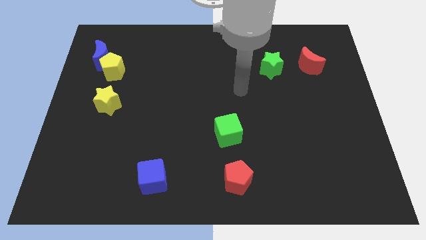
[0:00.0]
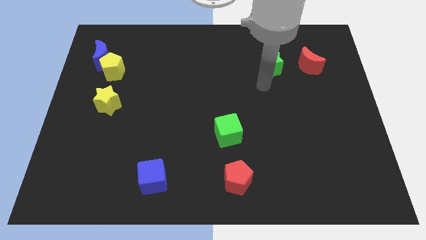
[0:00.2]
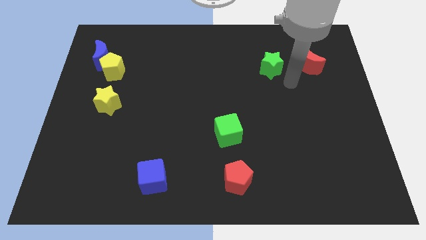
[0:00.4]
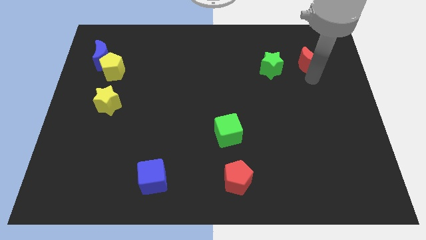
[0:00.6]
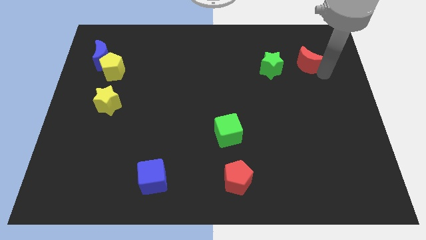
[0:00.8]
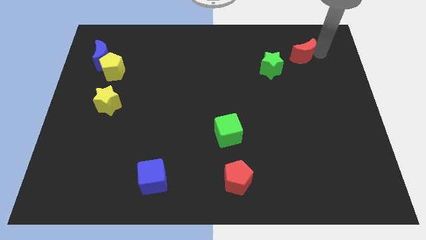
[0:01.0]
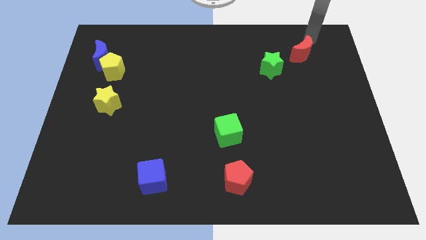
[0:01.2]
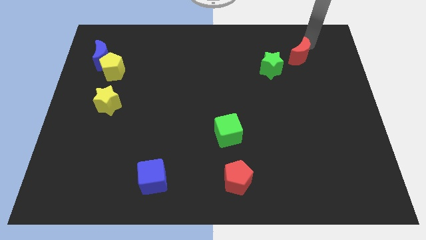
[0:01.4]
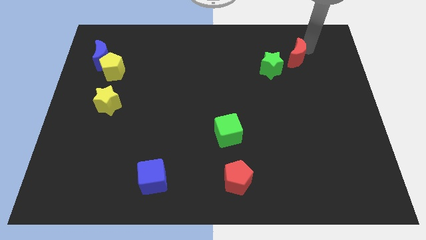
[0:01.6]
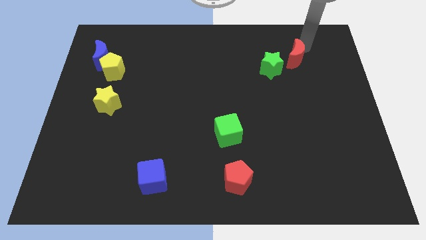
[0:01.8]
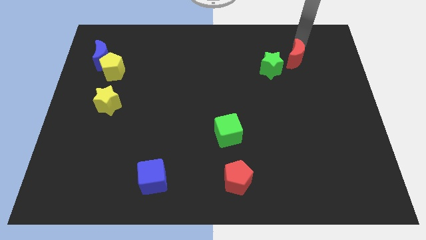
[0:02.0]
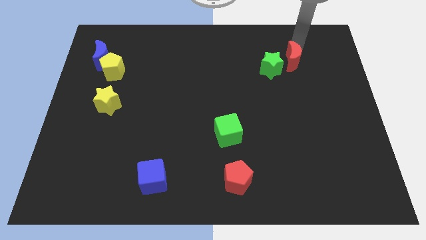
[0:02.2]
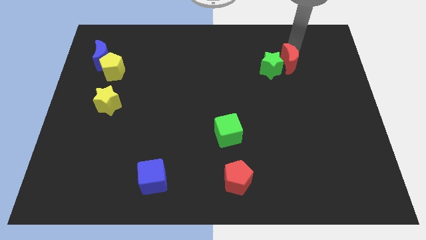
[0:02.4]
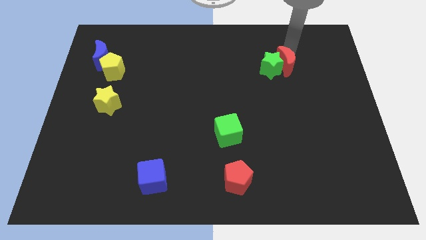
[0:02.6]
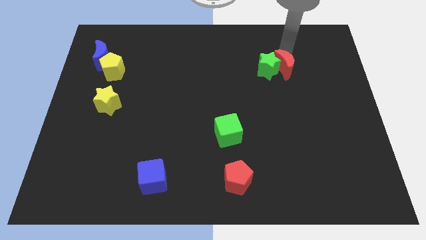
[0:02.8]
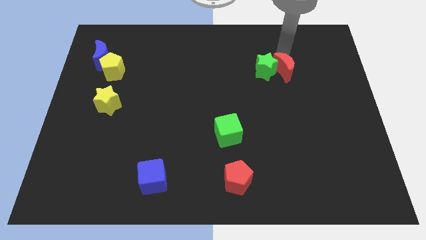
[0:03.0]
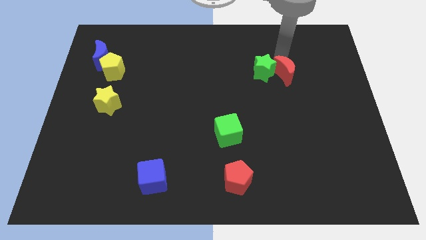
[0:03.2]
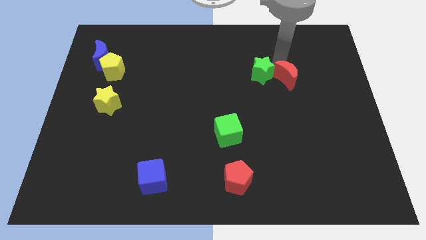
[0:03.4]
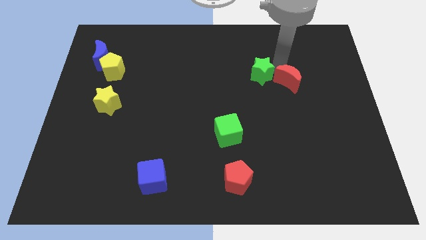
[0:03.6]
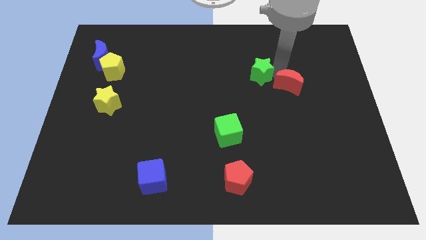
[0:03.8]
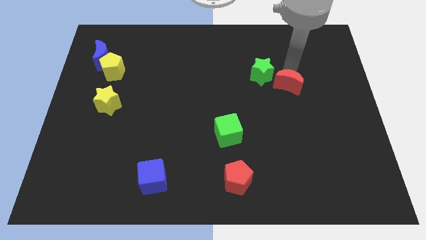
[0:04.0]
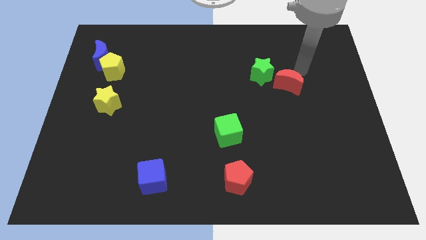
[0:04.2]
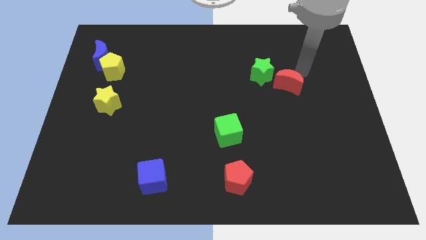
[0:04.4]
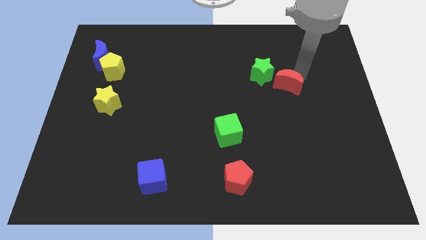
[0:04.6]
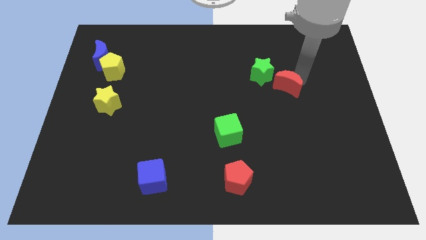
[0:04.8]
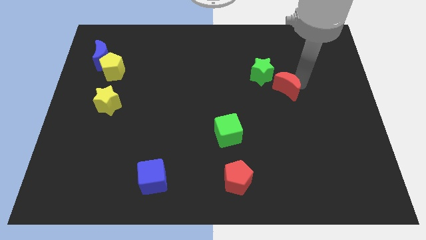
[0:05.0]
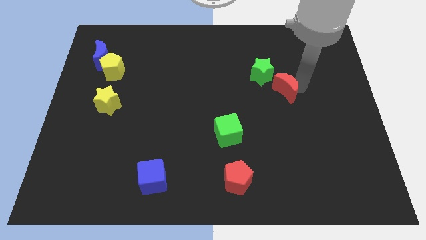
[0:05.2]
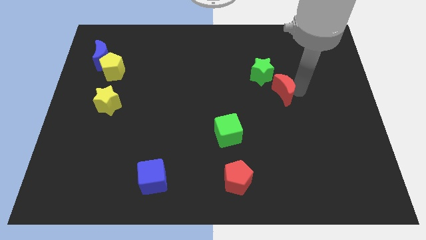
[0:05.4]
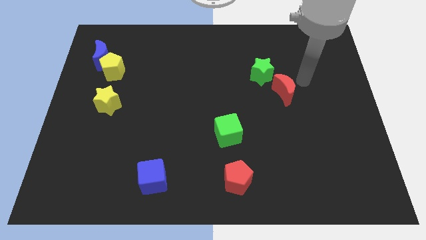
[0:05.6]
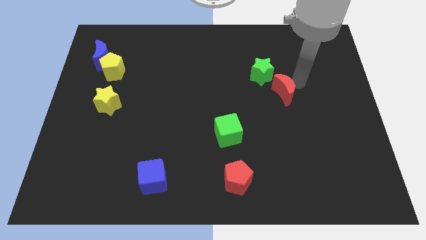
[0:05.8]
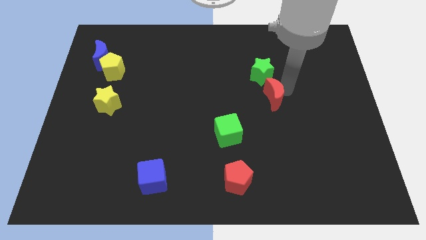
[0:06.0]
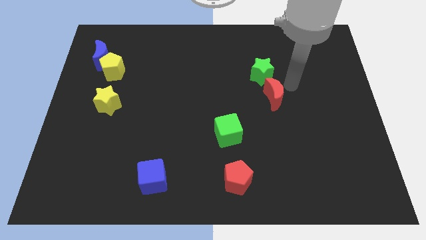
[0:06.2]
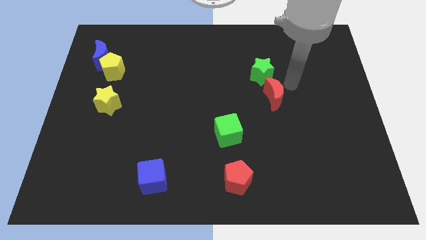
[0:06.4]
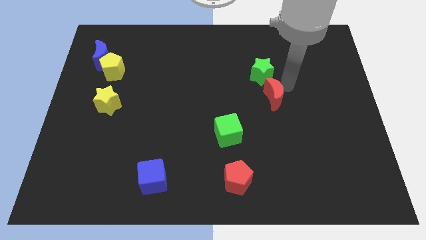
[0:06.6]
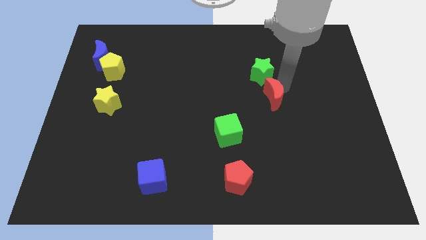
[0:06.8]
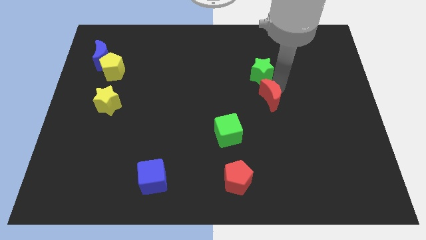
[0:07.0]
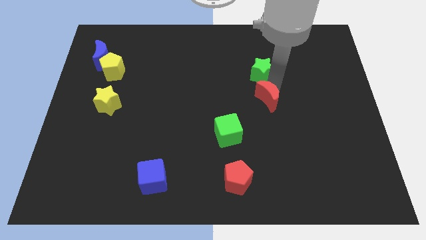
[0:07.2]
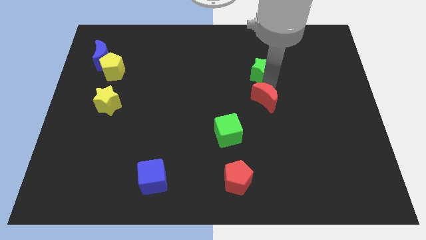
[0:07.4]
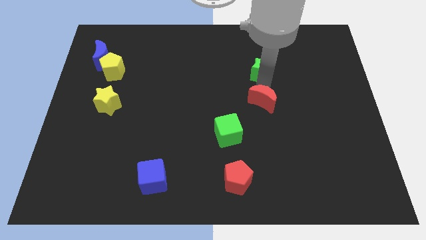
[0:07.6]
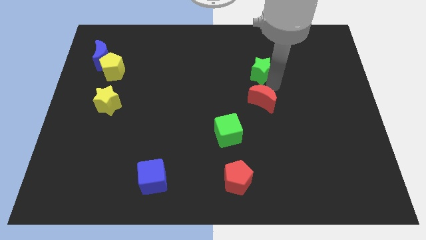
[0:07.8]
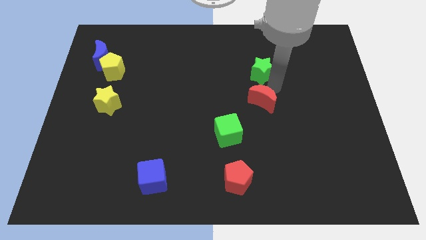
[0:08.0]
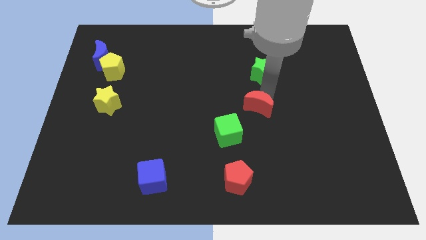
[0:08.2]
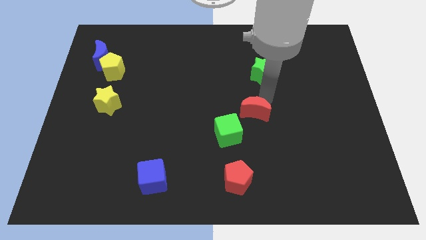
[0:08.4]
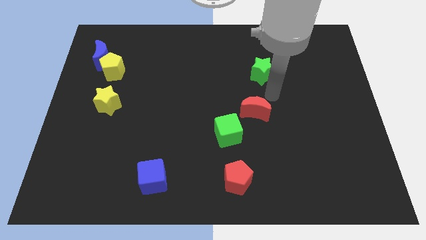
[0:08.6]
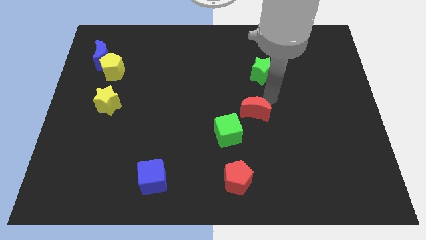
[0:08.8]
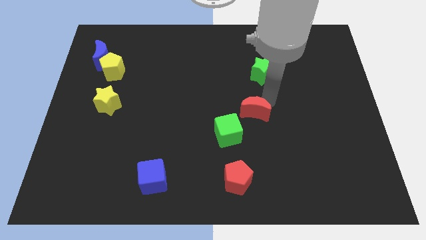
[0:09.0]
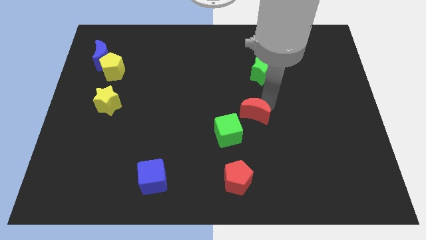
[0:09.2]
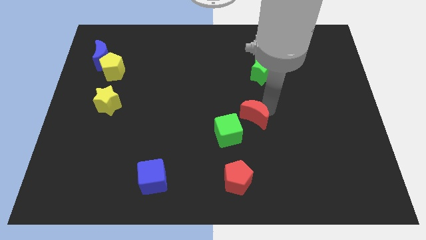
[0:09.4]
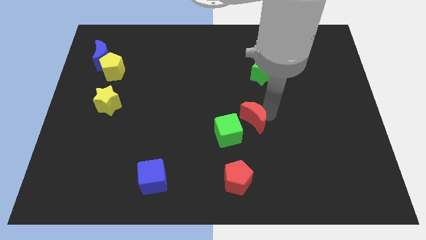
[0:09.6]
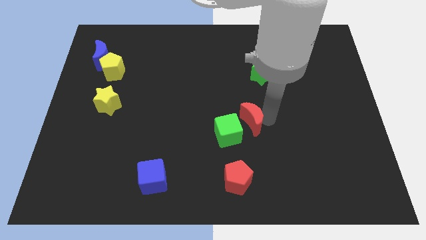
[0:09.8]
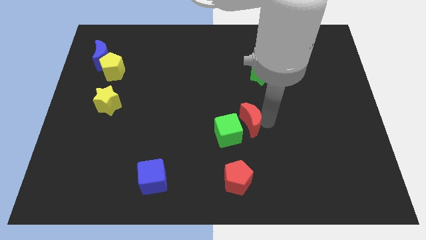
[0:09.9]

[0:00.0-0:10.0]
put the red moon close to the green cube

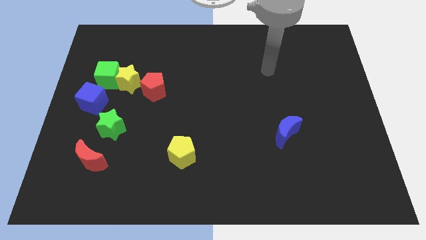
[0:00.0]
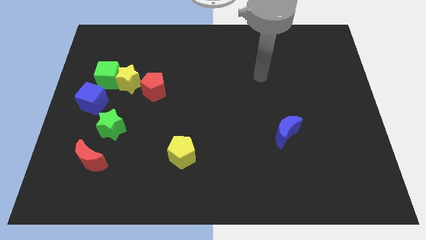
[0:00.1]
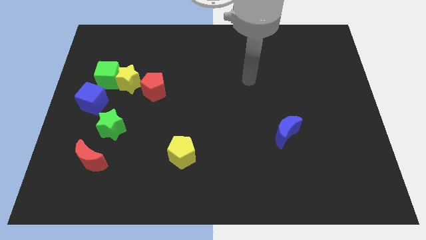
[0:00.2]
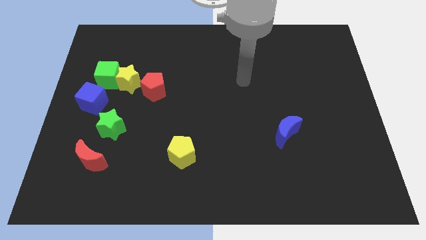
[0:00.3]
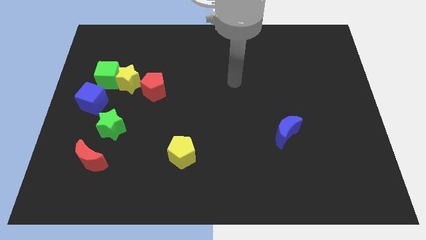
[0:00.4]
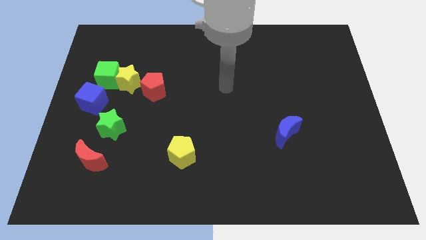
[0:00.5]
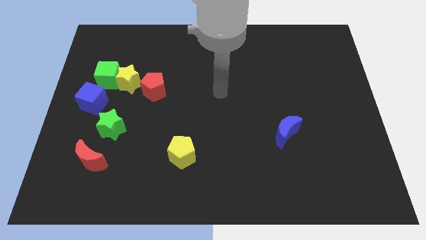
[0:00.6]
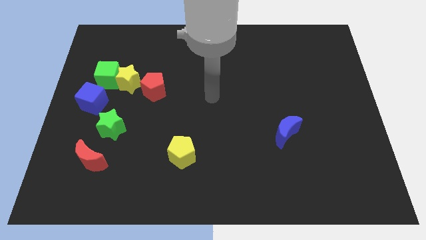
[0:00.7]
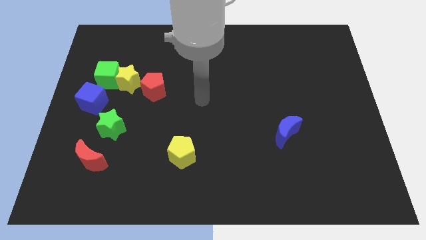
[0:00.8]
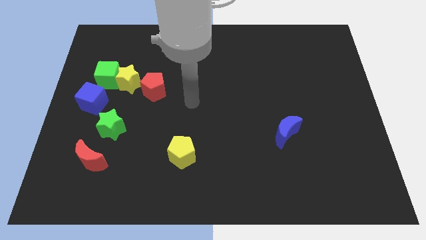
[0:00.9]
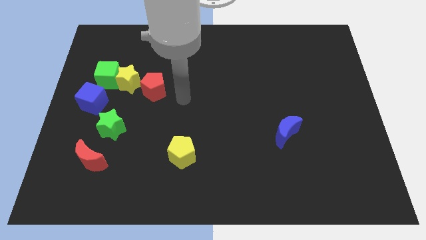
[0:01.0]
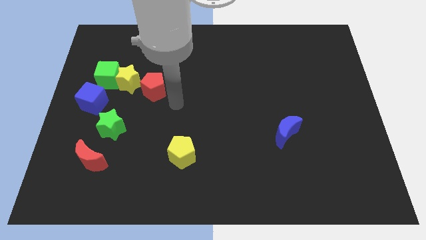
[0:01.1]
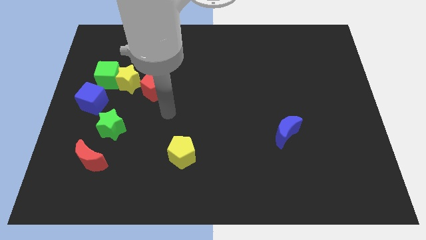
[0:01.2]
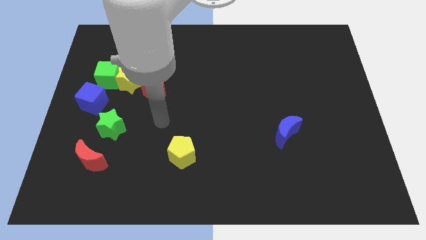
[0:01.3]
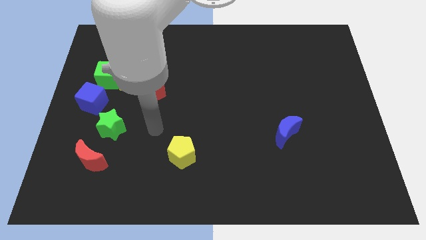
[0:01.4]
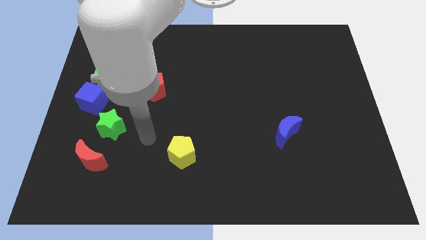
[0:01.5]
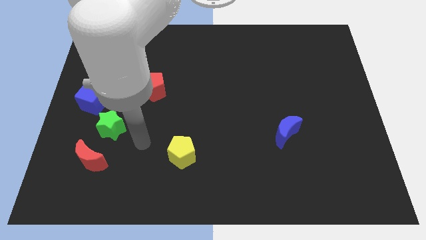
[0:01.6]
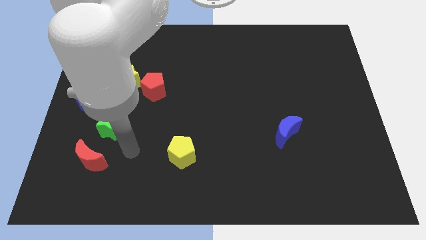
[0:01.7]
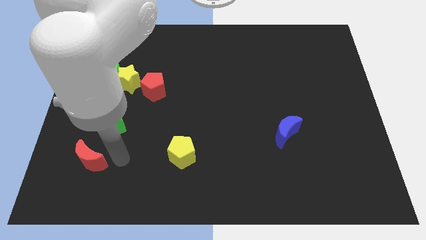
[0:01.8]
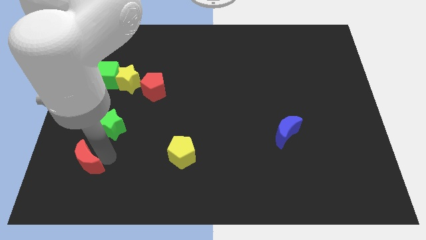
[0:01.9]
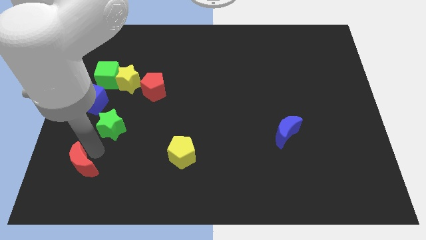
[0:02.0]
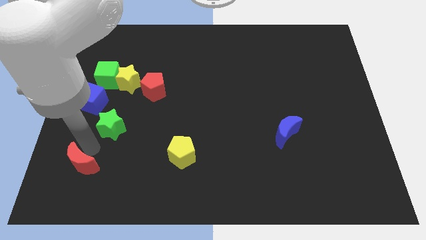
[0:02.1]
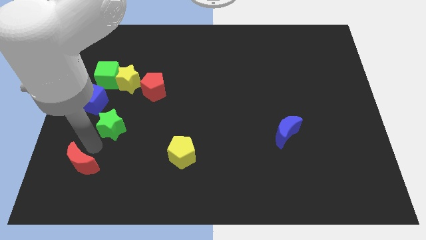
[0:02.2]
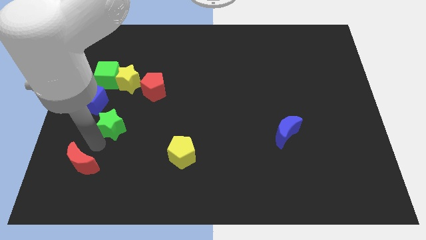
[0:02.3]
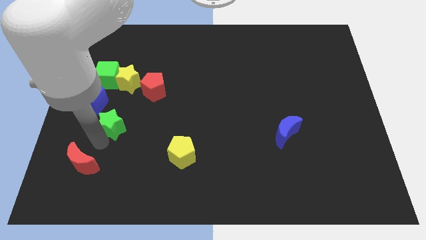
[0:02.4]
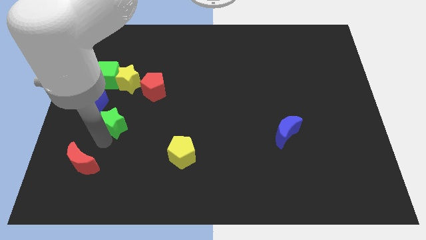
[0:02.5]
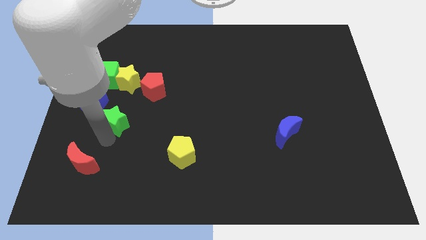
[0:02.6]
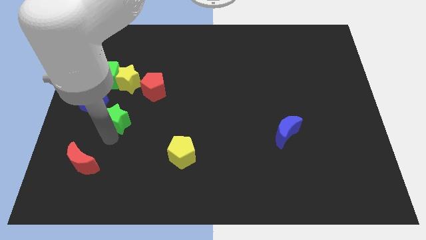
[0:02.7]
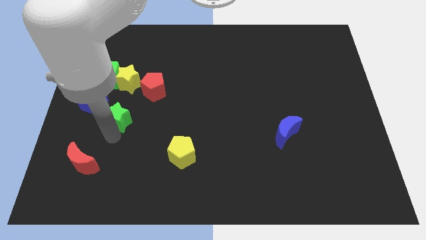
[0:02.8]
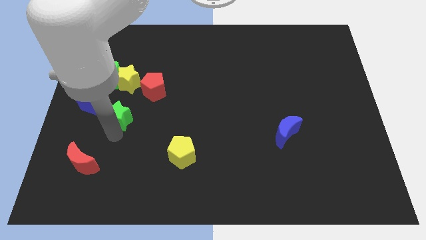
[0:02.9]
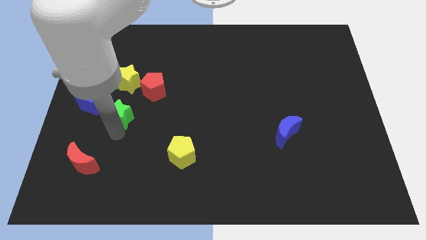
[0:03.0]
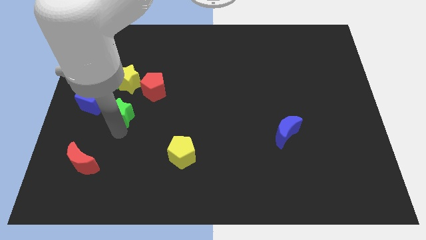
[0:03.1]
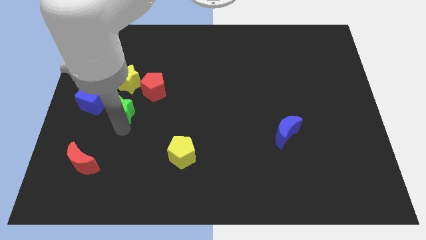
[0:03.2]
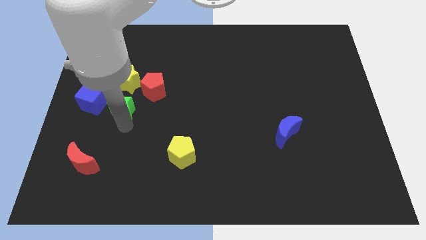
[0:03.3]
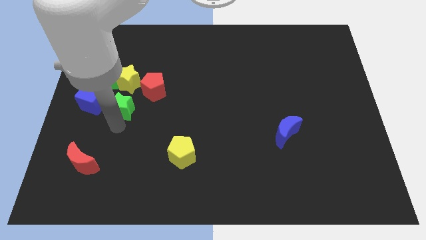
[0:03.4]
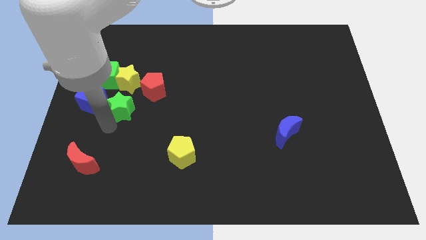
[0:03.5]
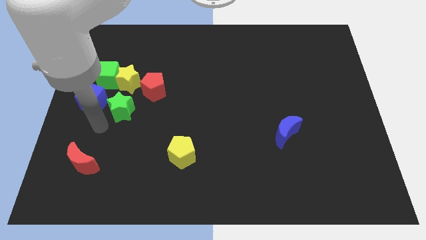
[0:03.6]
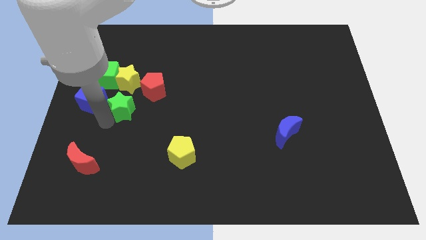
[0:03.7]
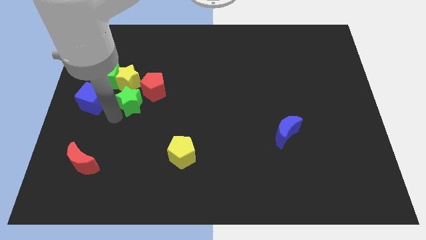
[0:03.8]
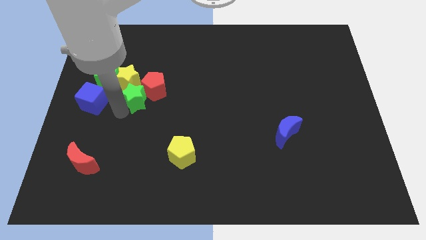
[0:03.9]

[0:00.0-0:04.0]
move the green star to the red pentagon
